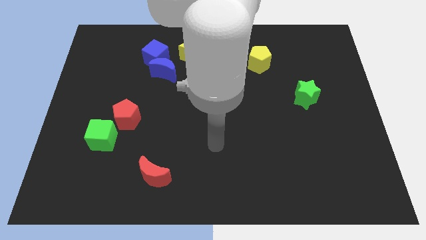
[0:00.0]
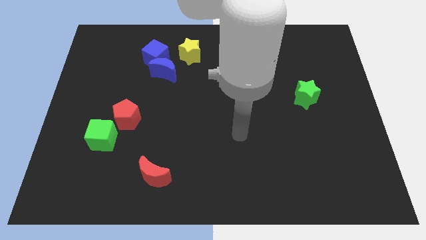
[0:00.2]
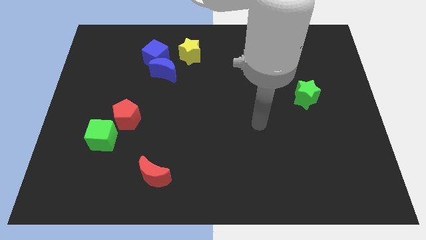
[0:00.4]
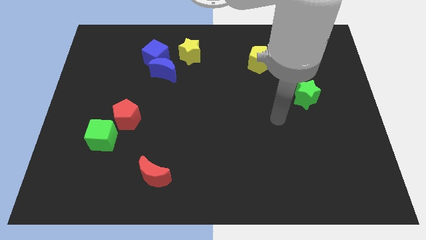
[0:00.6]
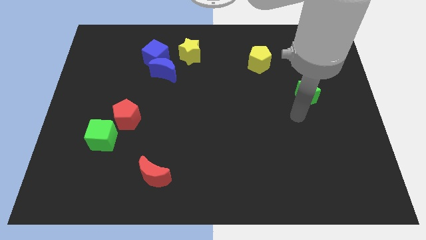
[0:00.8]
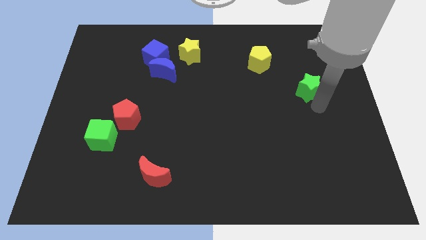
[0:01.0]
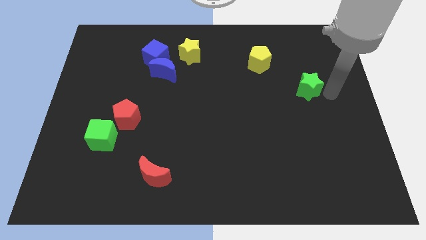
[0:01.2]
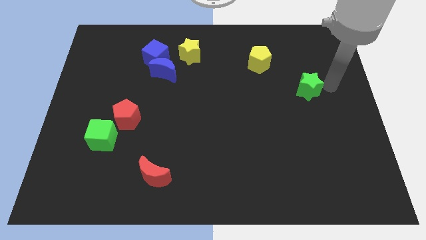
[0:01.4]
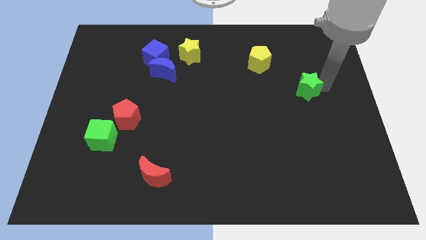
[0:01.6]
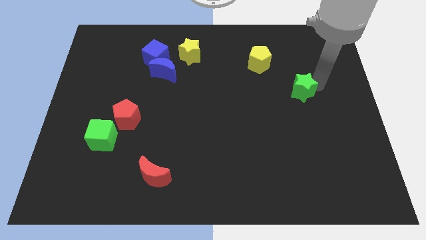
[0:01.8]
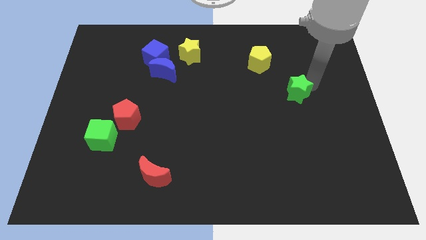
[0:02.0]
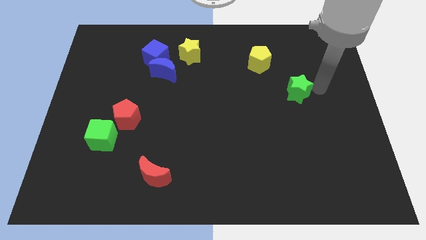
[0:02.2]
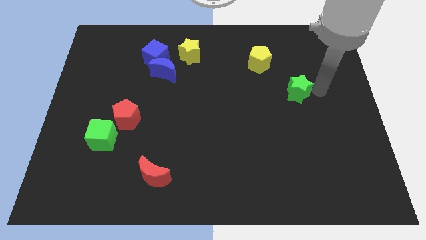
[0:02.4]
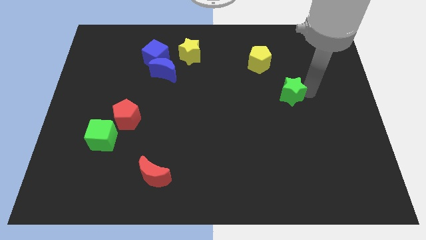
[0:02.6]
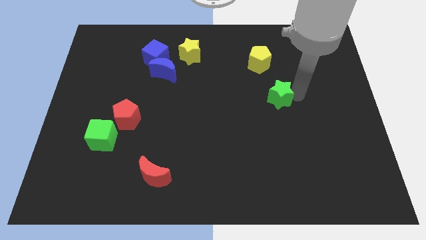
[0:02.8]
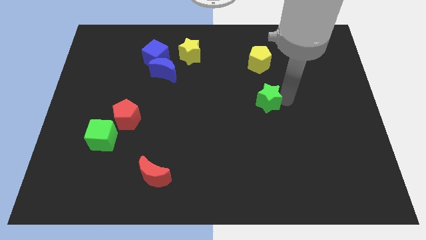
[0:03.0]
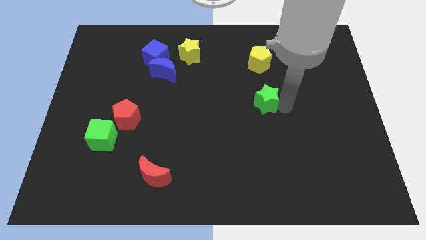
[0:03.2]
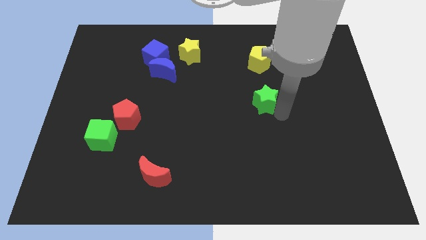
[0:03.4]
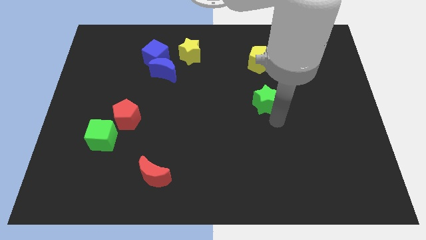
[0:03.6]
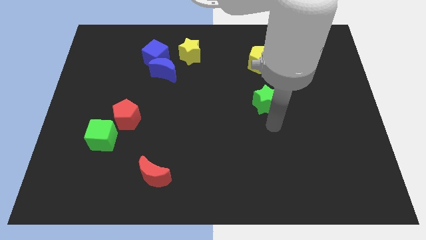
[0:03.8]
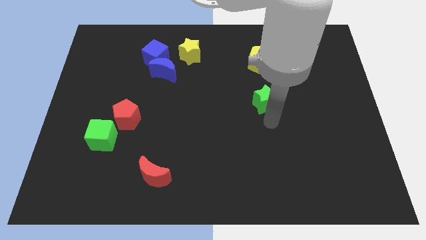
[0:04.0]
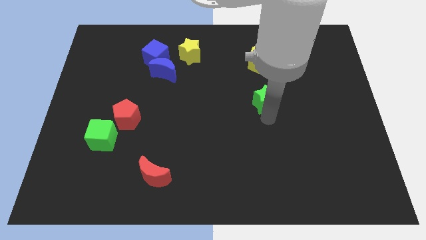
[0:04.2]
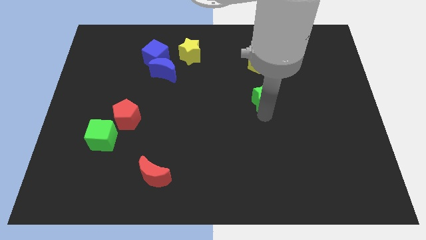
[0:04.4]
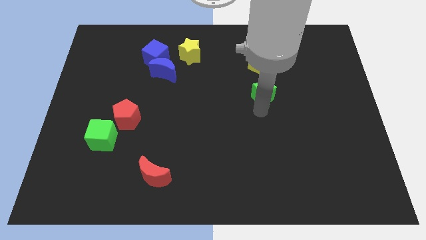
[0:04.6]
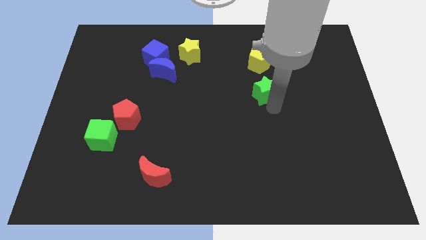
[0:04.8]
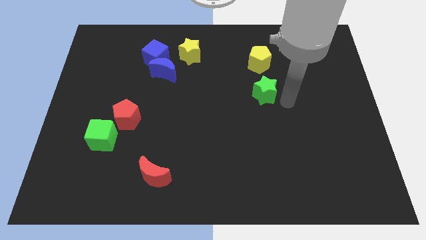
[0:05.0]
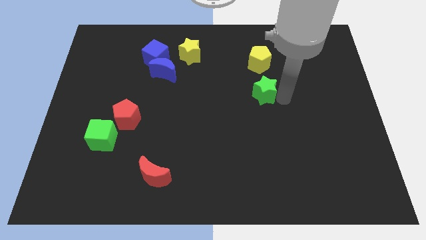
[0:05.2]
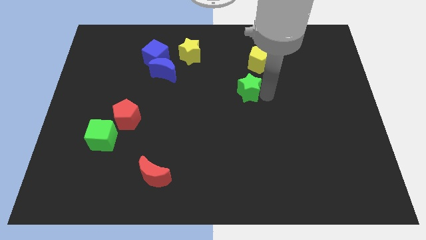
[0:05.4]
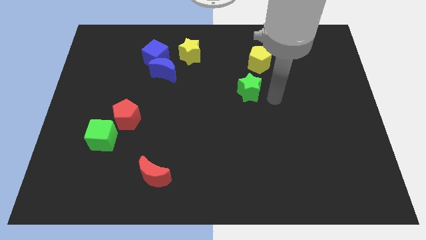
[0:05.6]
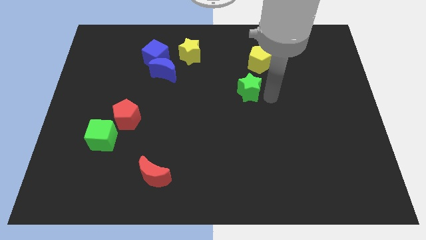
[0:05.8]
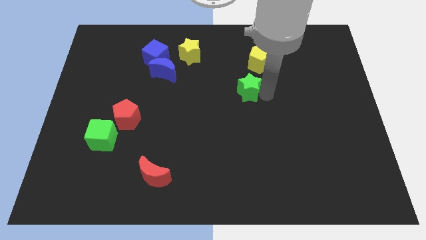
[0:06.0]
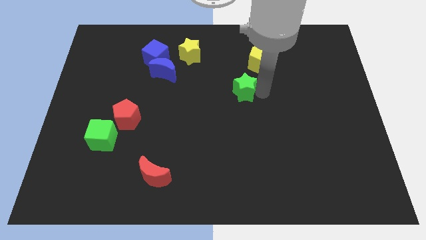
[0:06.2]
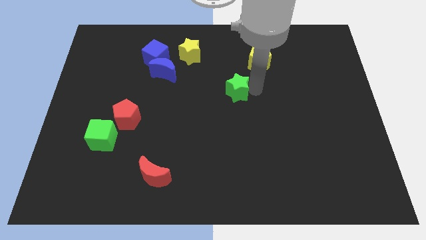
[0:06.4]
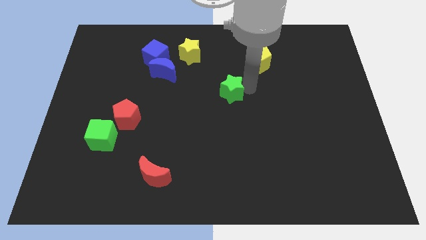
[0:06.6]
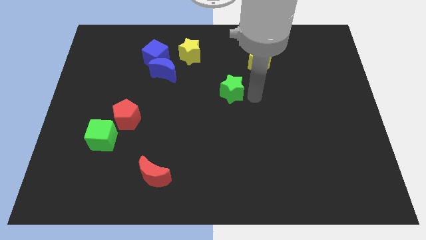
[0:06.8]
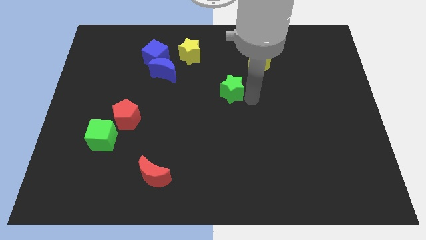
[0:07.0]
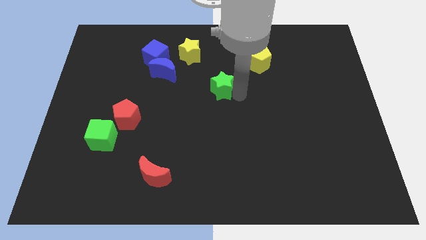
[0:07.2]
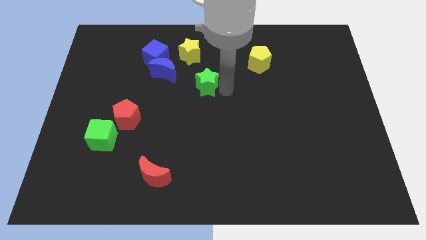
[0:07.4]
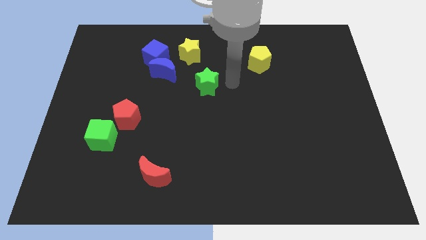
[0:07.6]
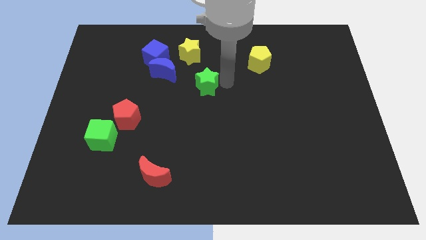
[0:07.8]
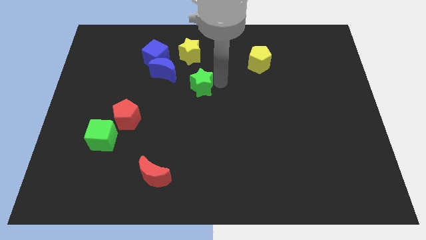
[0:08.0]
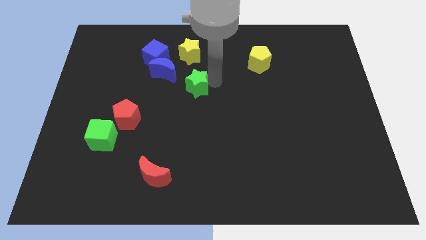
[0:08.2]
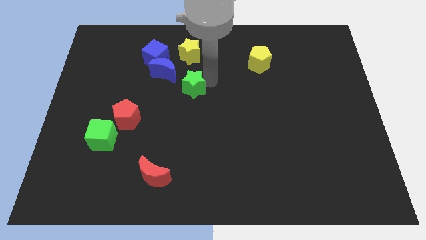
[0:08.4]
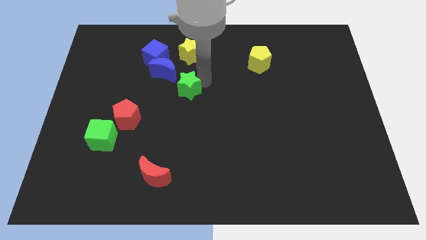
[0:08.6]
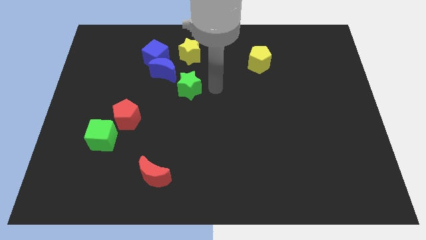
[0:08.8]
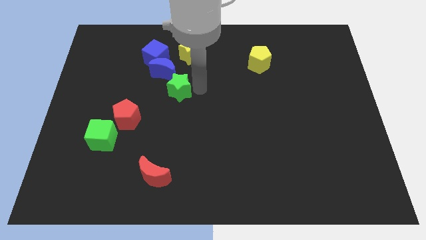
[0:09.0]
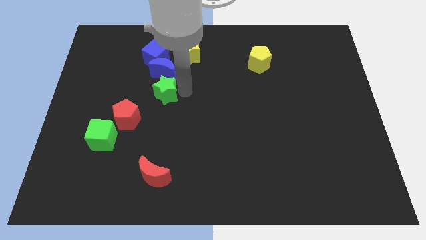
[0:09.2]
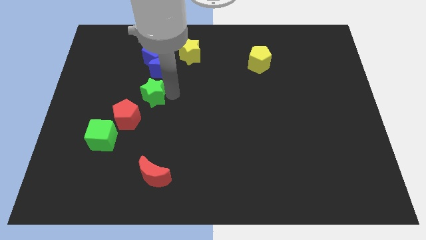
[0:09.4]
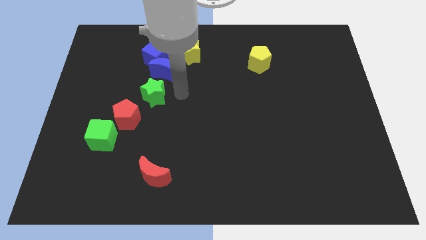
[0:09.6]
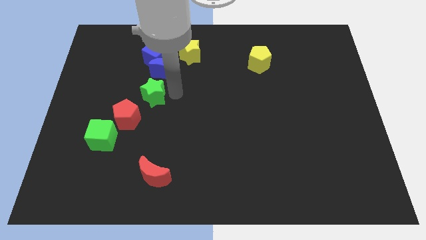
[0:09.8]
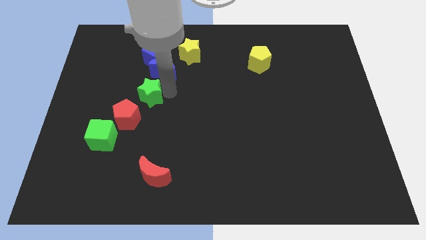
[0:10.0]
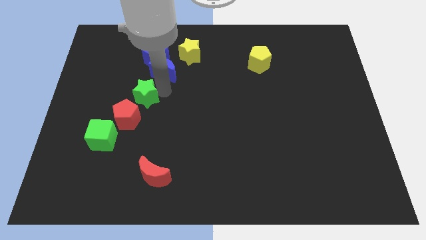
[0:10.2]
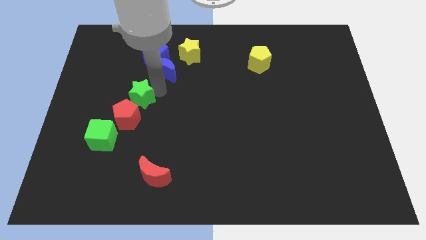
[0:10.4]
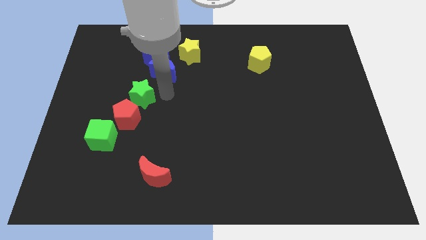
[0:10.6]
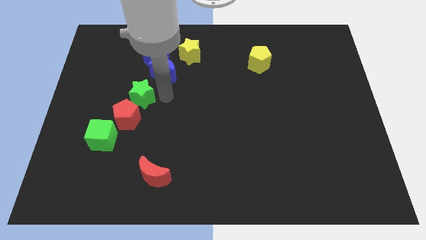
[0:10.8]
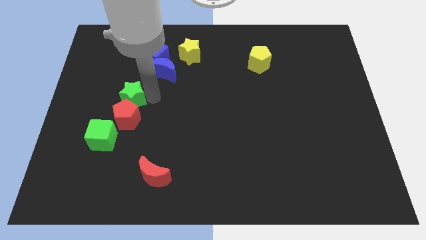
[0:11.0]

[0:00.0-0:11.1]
push the green star to the top left of the red pentagon

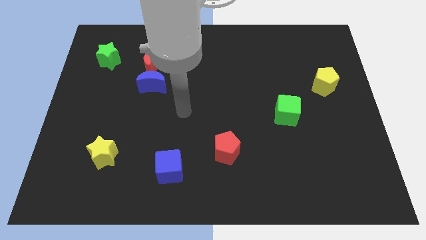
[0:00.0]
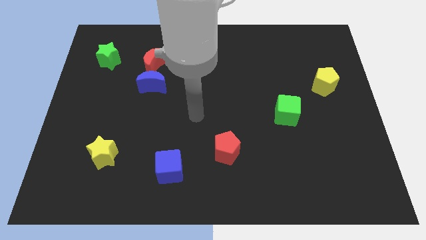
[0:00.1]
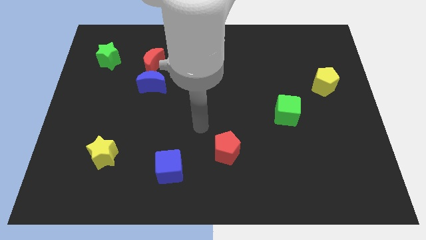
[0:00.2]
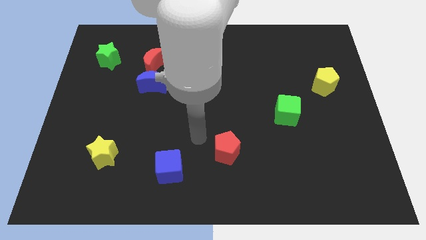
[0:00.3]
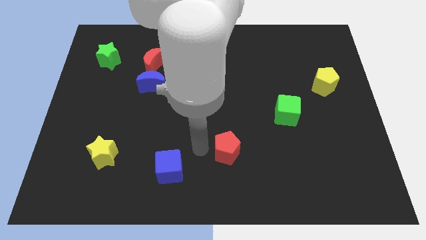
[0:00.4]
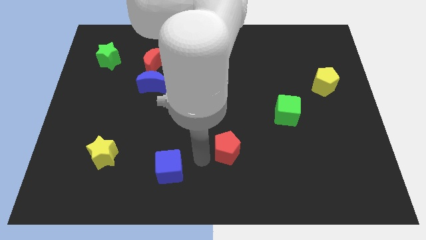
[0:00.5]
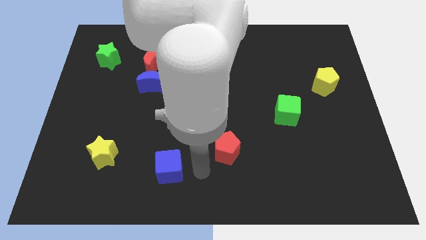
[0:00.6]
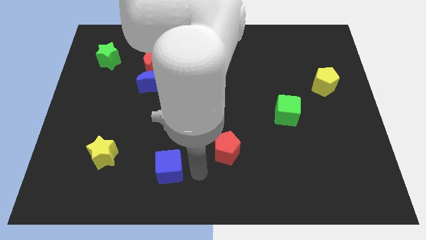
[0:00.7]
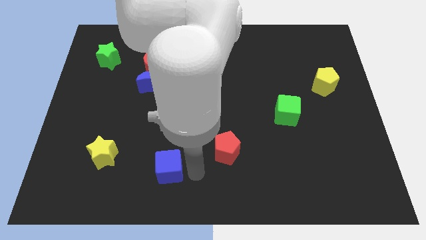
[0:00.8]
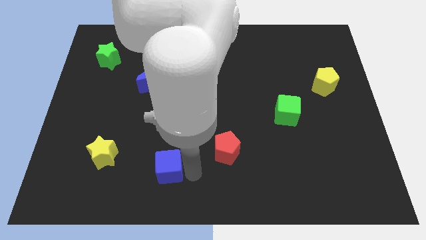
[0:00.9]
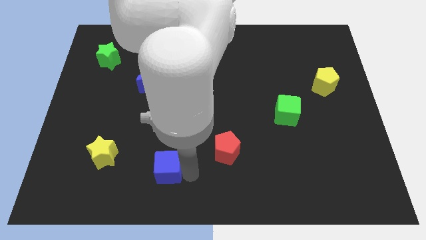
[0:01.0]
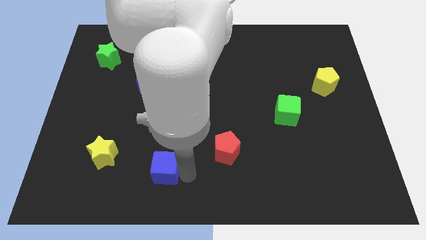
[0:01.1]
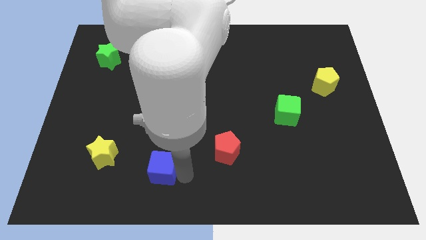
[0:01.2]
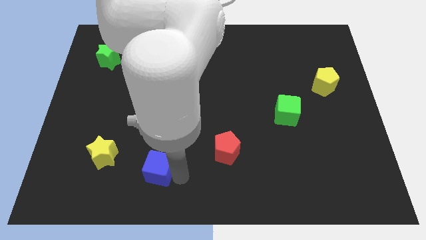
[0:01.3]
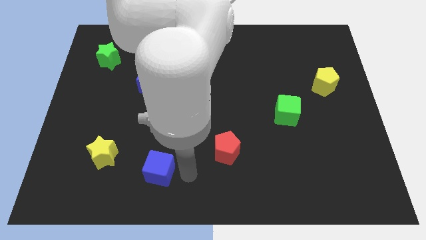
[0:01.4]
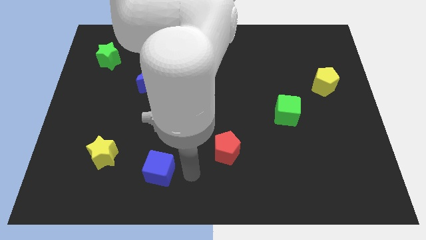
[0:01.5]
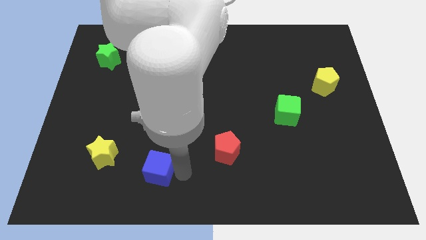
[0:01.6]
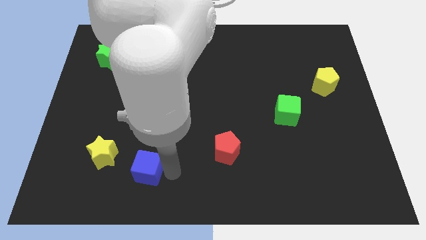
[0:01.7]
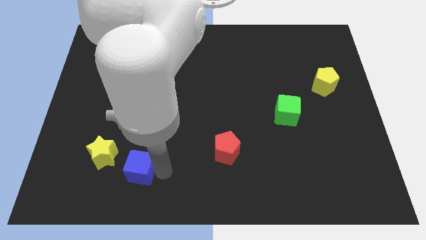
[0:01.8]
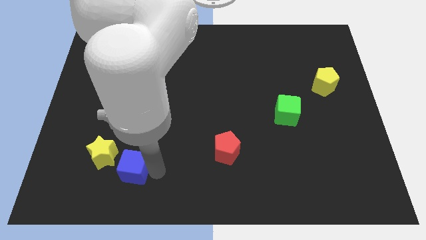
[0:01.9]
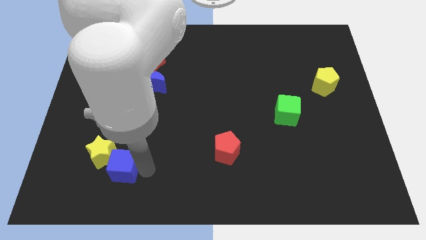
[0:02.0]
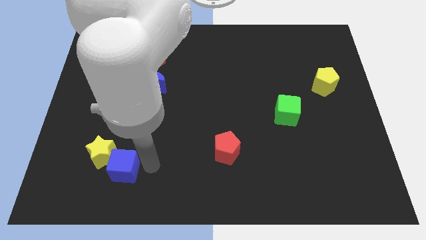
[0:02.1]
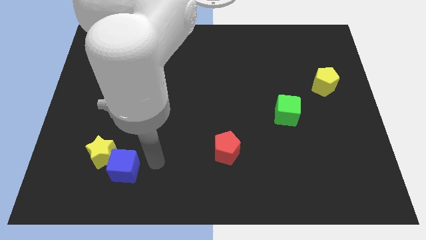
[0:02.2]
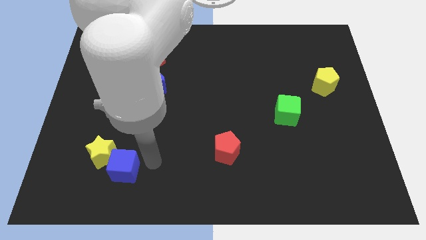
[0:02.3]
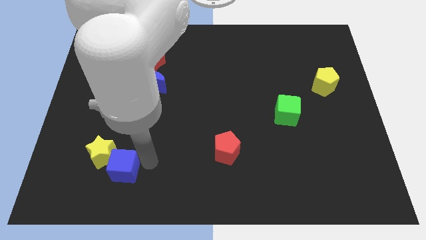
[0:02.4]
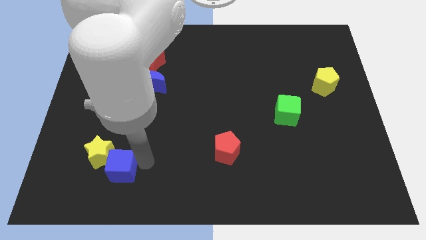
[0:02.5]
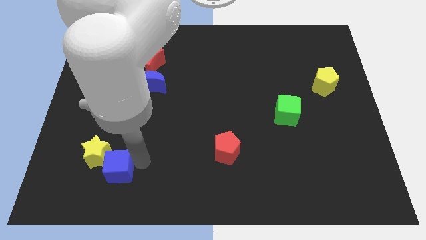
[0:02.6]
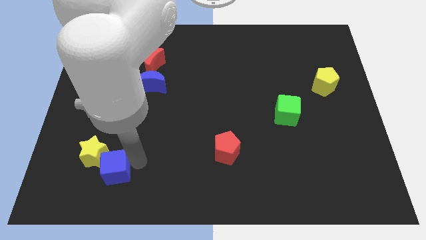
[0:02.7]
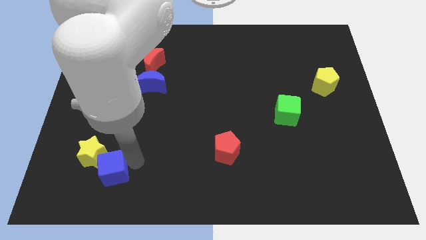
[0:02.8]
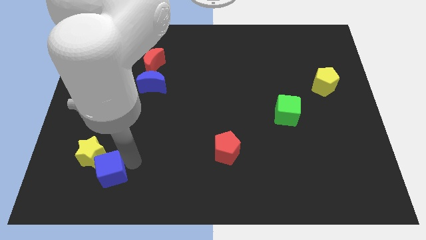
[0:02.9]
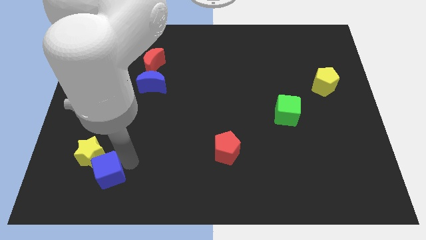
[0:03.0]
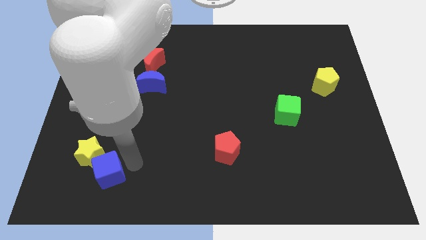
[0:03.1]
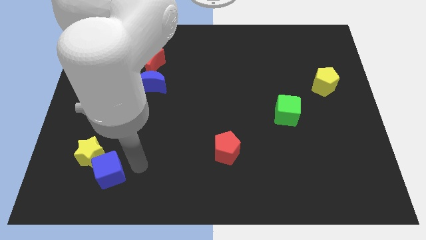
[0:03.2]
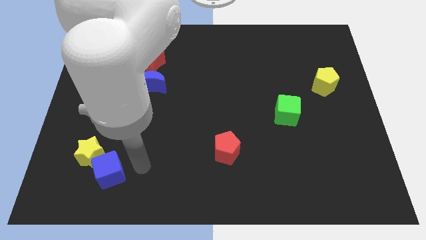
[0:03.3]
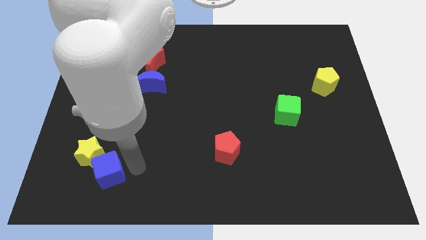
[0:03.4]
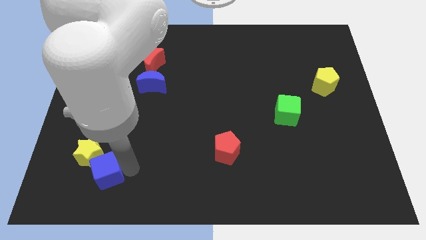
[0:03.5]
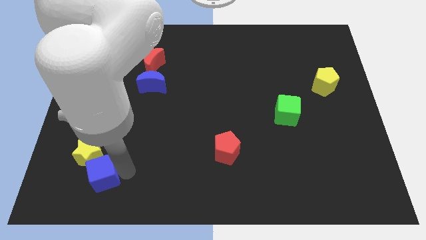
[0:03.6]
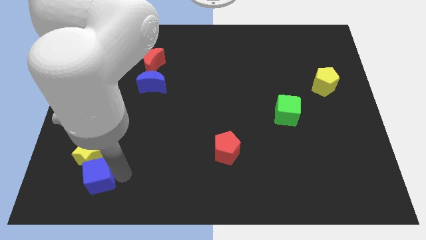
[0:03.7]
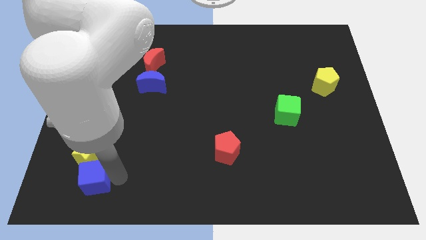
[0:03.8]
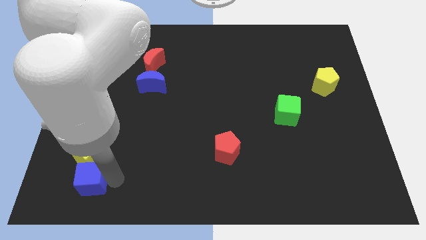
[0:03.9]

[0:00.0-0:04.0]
push the blue cube to the bottom left of the yellow star
